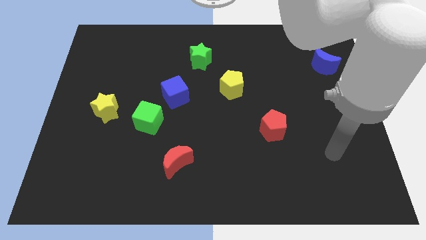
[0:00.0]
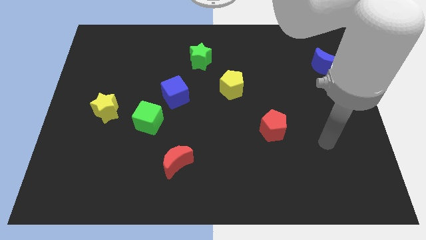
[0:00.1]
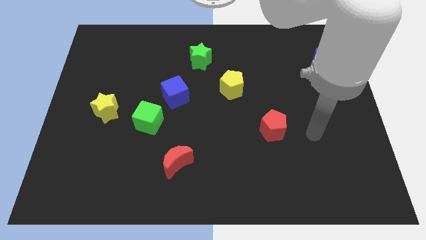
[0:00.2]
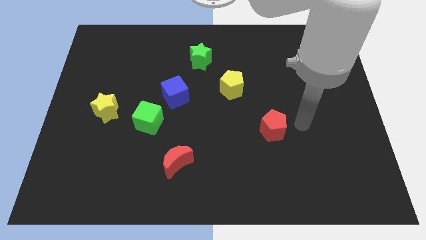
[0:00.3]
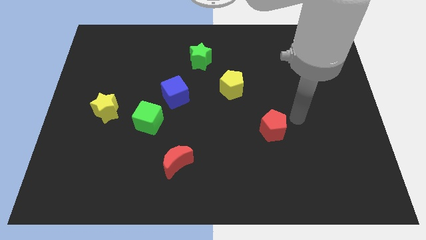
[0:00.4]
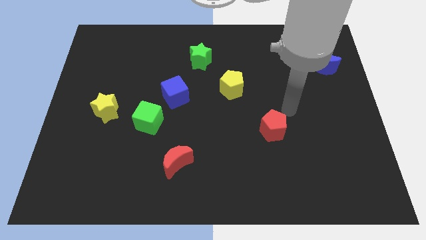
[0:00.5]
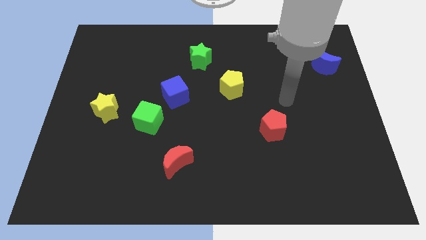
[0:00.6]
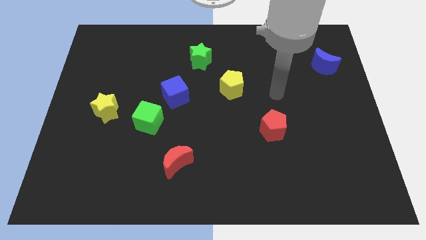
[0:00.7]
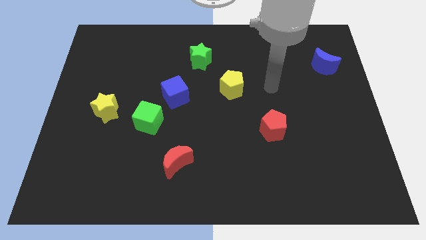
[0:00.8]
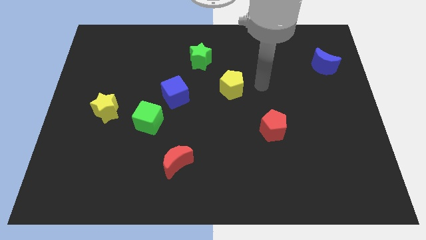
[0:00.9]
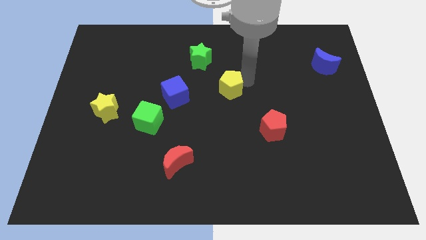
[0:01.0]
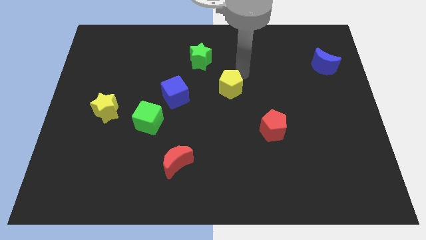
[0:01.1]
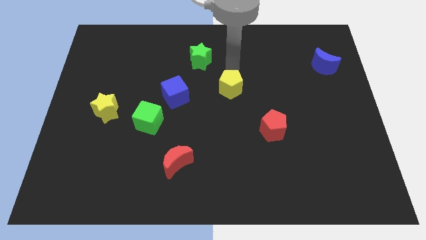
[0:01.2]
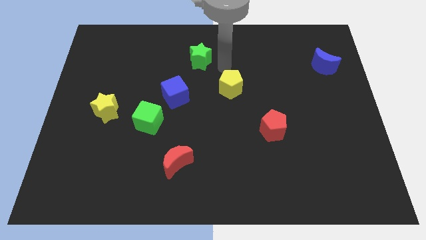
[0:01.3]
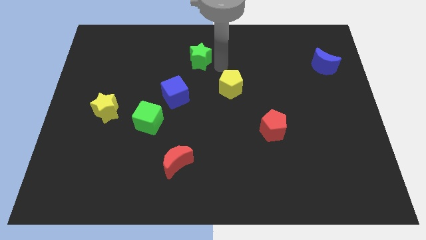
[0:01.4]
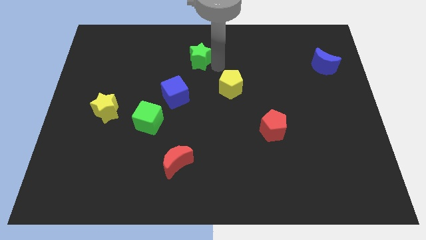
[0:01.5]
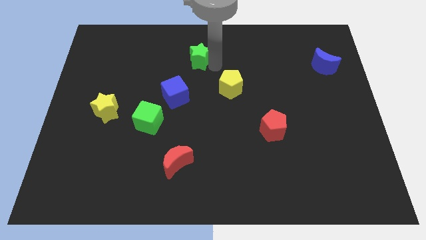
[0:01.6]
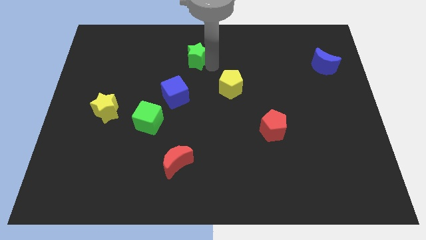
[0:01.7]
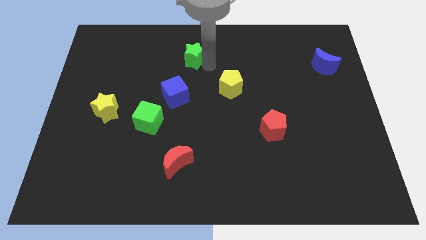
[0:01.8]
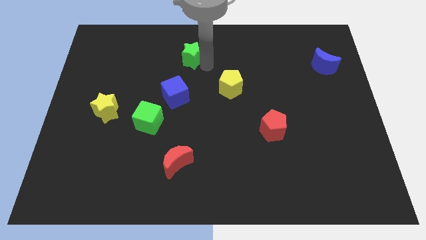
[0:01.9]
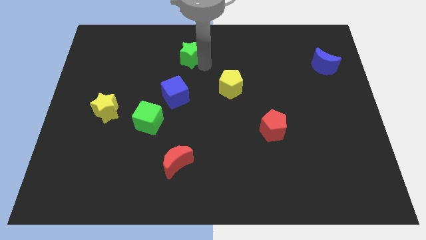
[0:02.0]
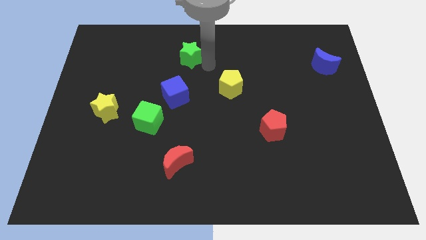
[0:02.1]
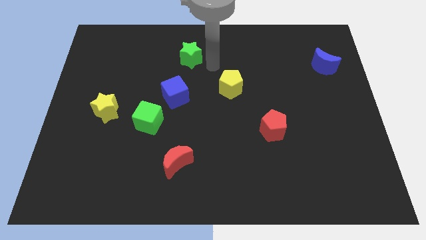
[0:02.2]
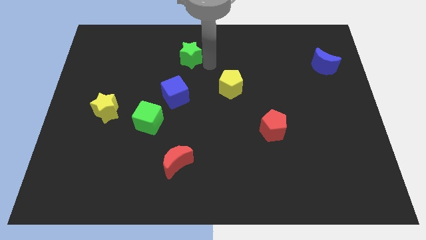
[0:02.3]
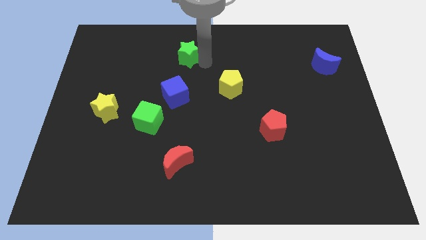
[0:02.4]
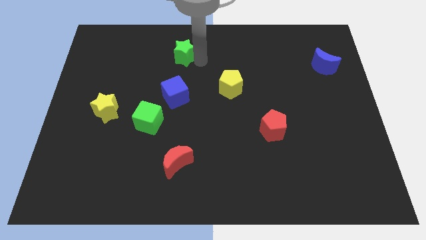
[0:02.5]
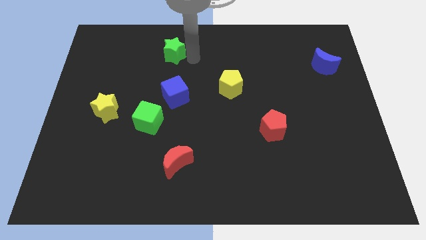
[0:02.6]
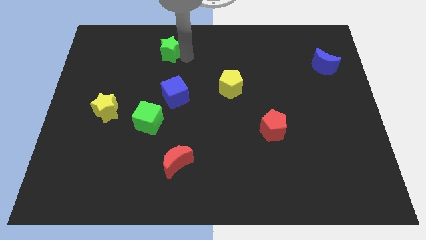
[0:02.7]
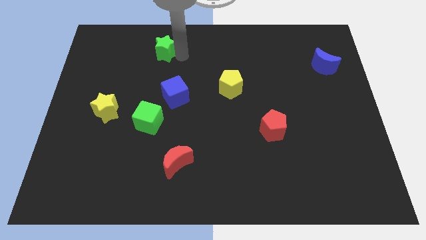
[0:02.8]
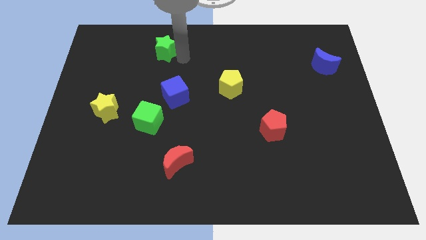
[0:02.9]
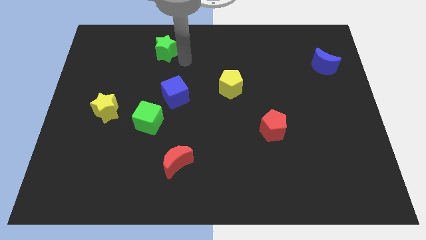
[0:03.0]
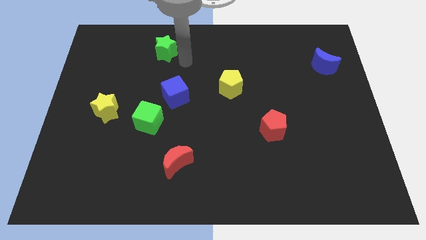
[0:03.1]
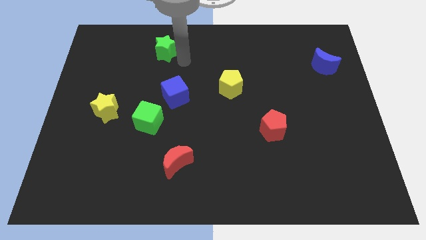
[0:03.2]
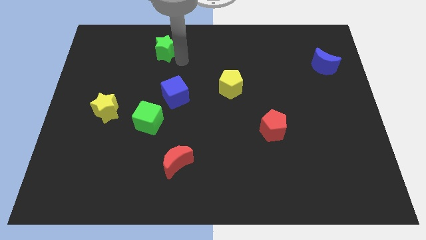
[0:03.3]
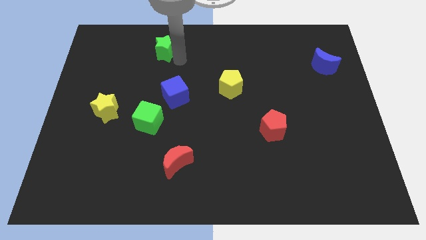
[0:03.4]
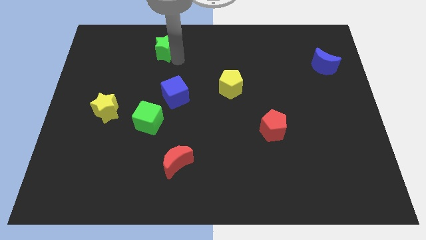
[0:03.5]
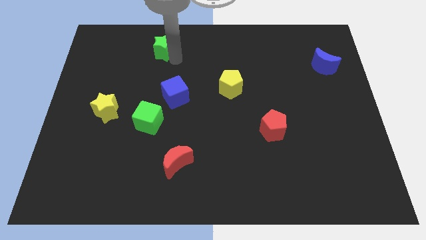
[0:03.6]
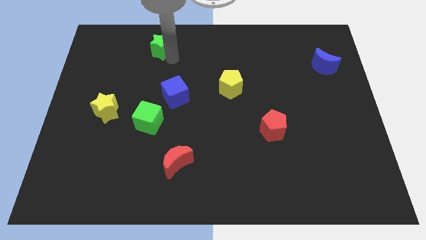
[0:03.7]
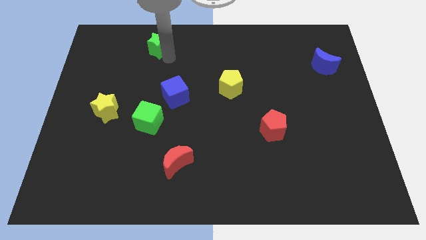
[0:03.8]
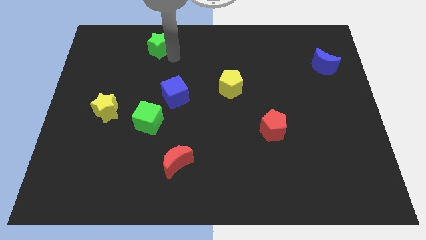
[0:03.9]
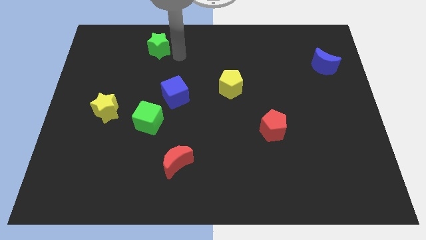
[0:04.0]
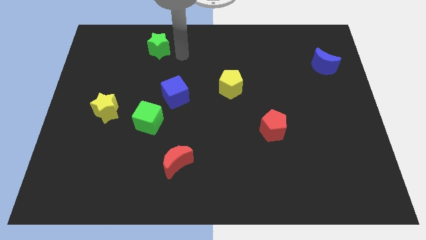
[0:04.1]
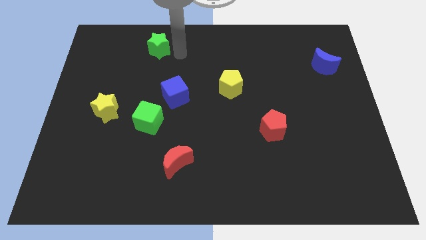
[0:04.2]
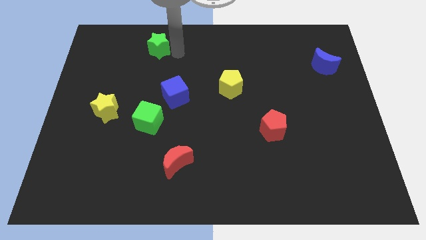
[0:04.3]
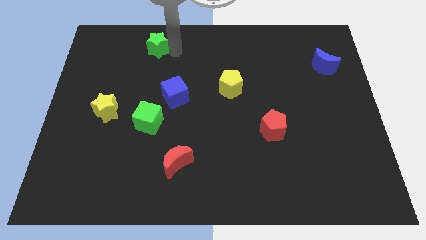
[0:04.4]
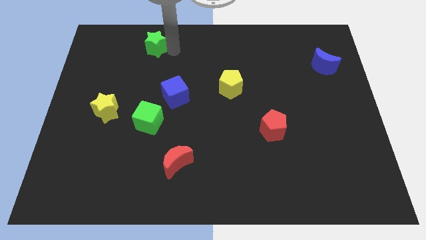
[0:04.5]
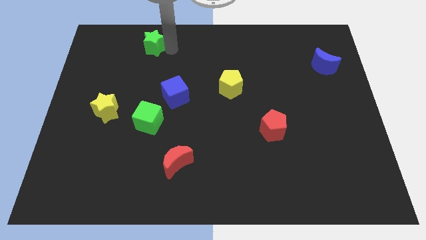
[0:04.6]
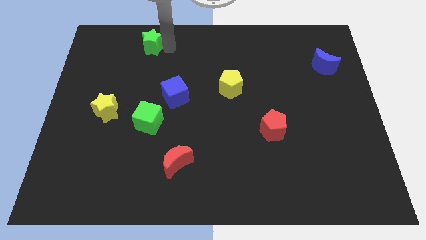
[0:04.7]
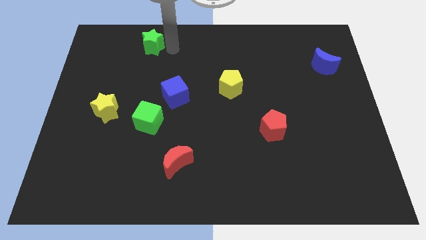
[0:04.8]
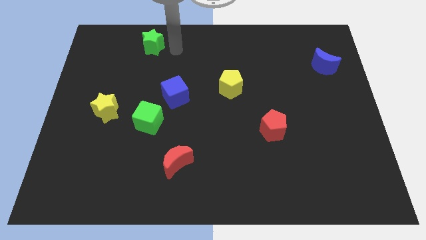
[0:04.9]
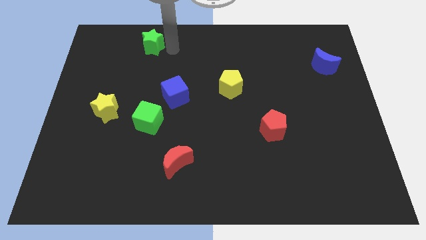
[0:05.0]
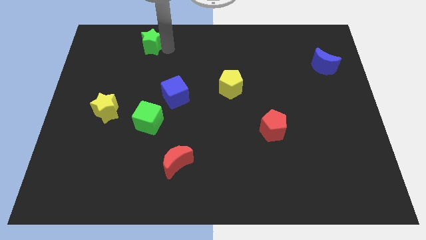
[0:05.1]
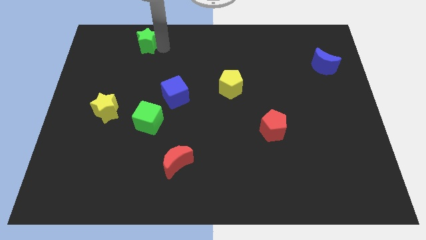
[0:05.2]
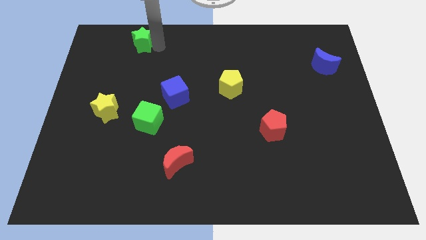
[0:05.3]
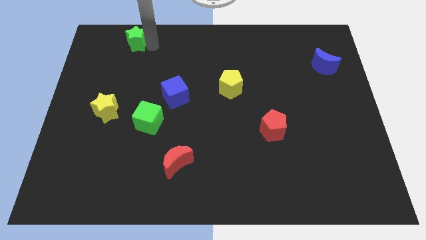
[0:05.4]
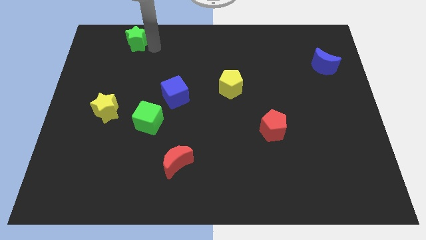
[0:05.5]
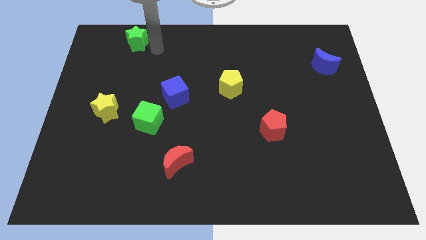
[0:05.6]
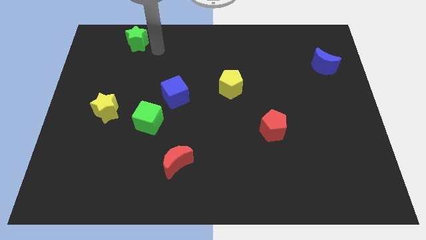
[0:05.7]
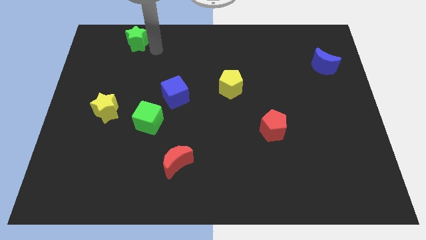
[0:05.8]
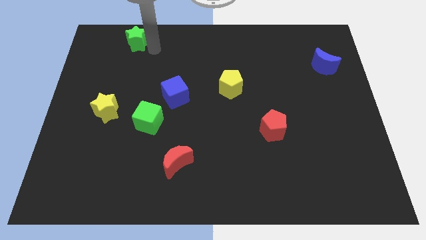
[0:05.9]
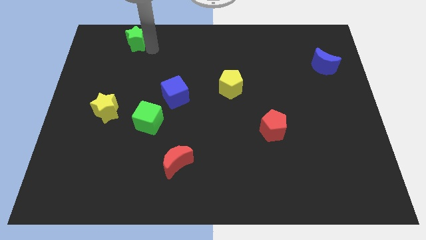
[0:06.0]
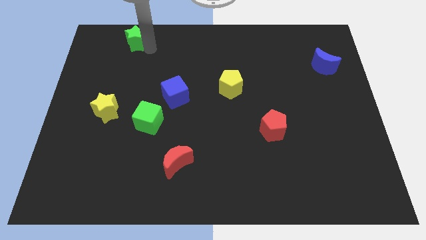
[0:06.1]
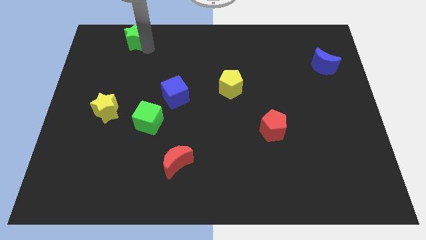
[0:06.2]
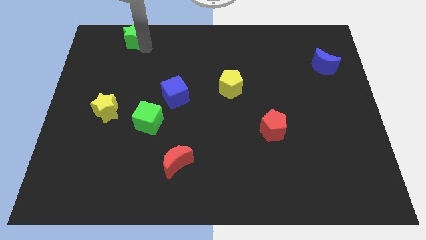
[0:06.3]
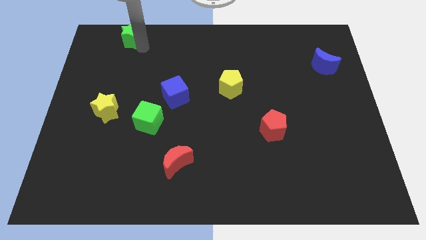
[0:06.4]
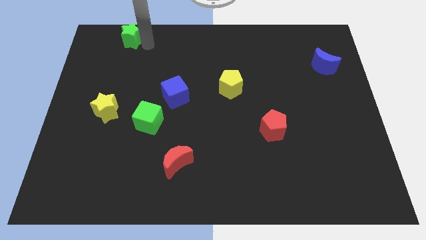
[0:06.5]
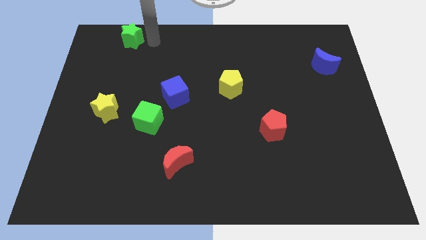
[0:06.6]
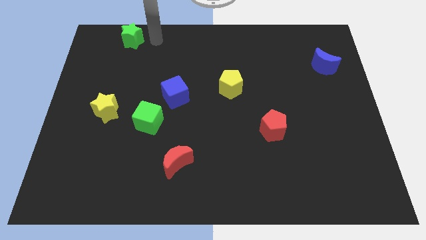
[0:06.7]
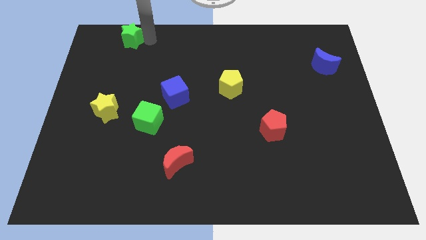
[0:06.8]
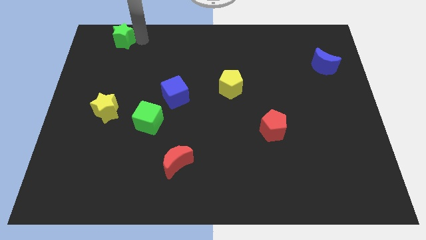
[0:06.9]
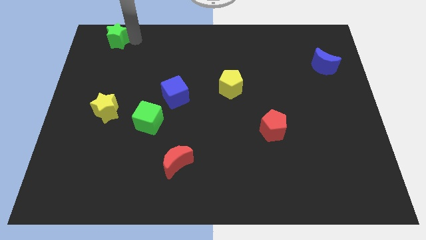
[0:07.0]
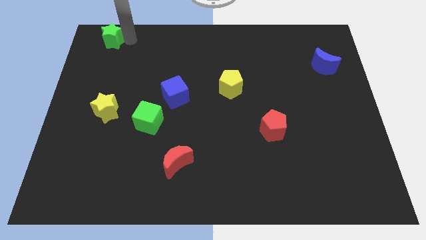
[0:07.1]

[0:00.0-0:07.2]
move the green star to the top left corner
